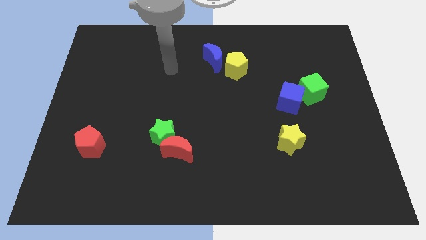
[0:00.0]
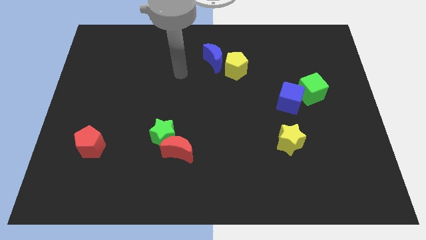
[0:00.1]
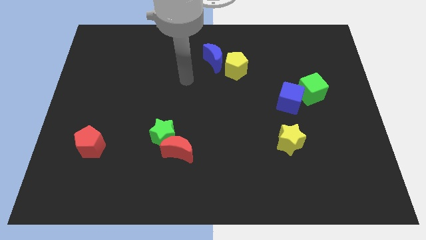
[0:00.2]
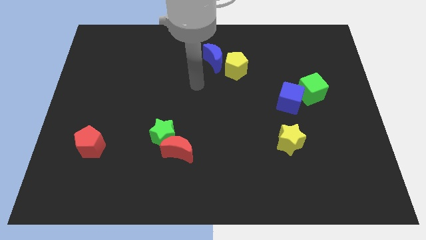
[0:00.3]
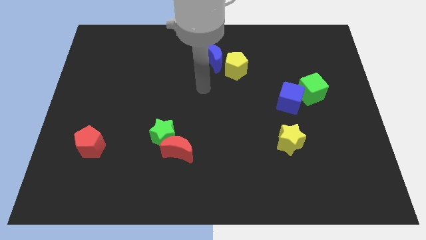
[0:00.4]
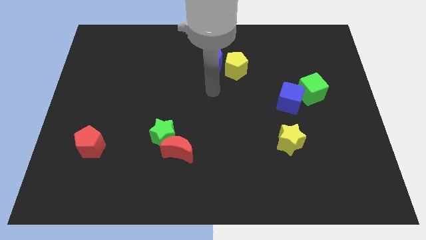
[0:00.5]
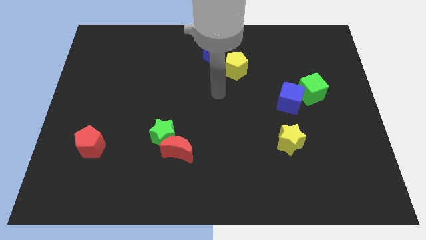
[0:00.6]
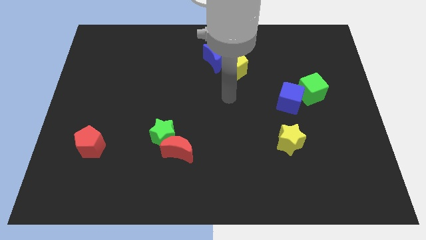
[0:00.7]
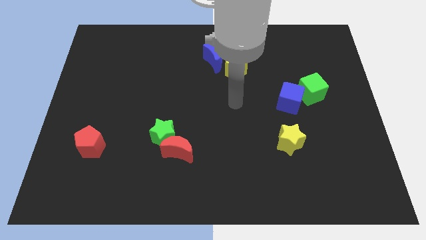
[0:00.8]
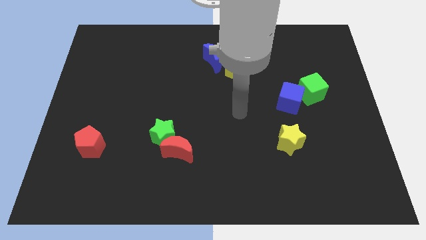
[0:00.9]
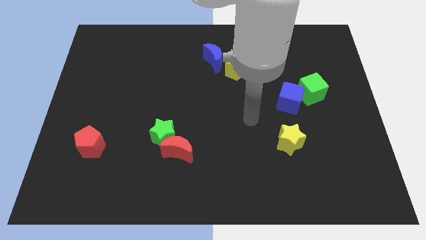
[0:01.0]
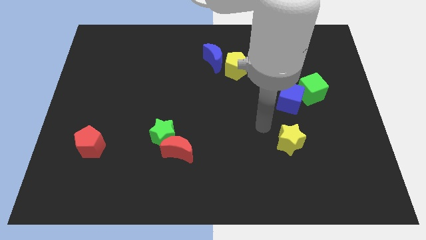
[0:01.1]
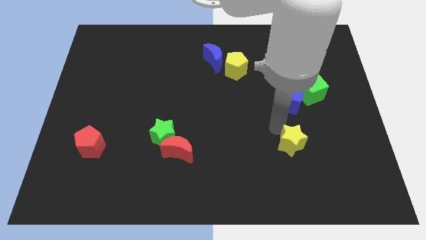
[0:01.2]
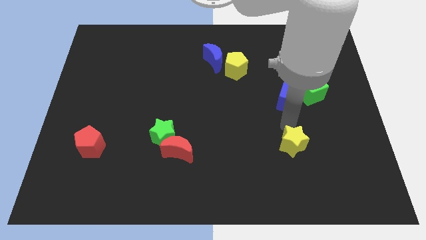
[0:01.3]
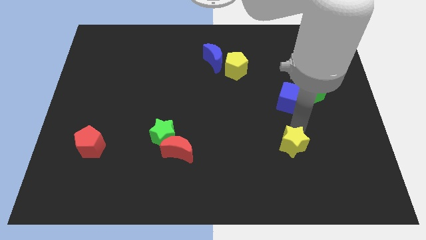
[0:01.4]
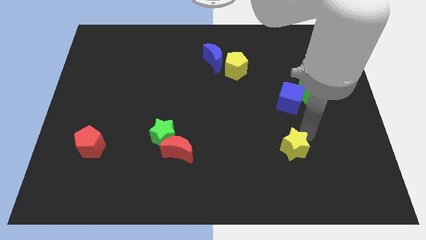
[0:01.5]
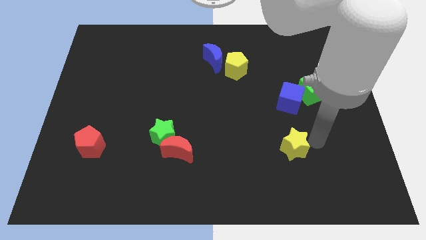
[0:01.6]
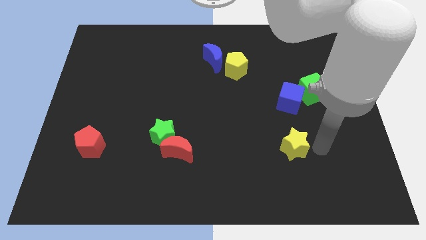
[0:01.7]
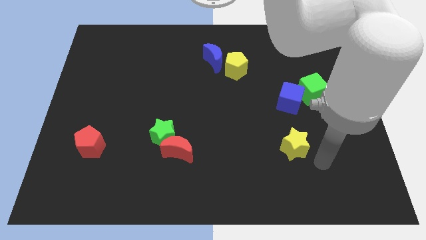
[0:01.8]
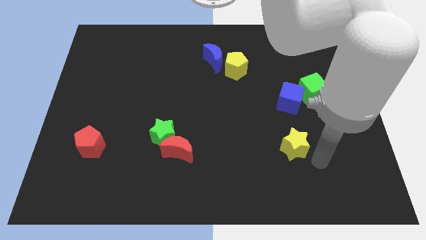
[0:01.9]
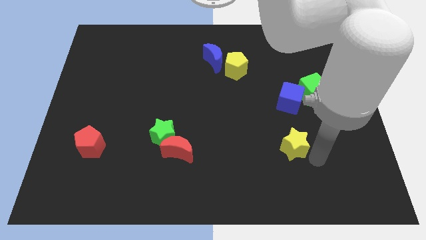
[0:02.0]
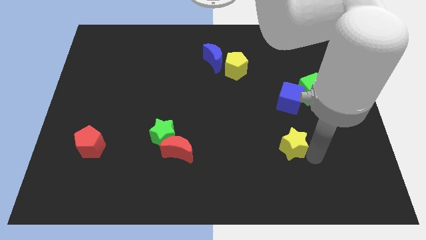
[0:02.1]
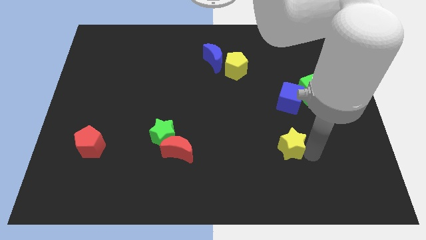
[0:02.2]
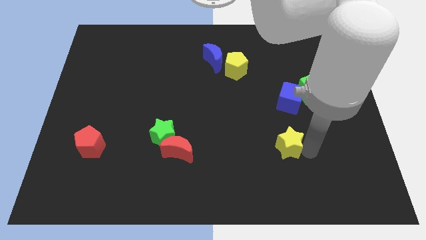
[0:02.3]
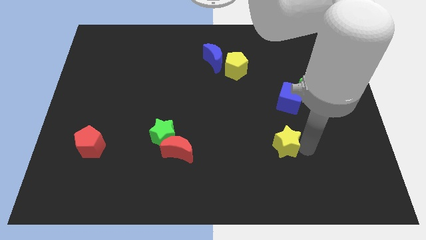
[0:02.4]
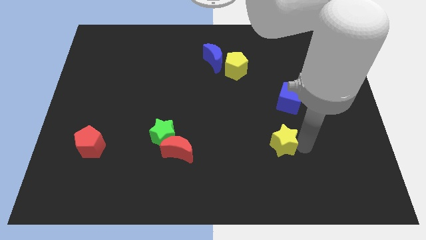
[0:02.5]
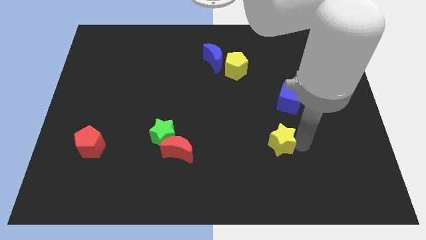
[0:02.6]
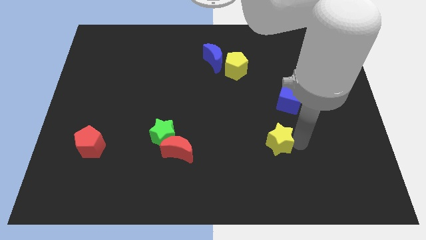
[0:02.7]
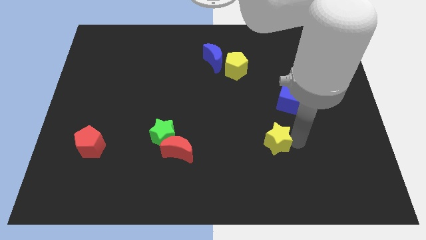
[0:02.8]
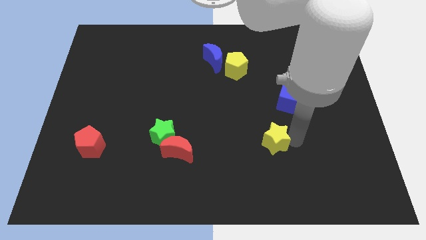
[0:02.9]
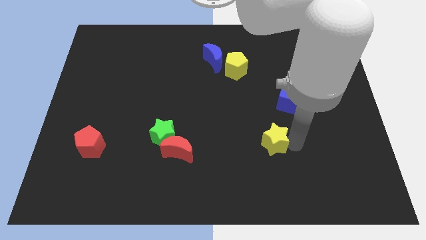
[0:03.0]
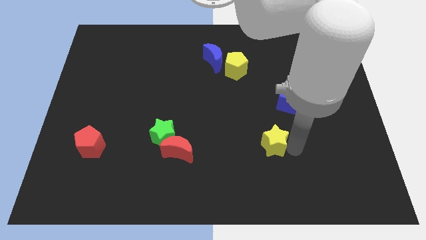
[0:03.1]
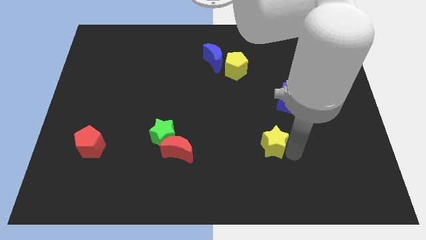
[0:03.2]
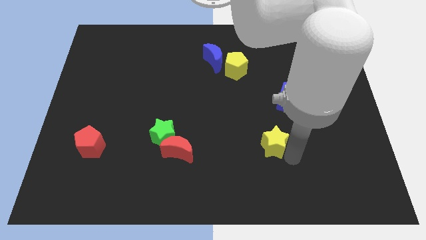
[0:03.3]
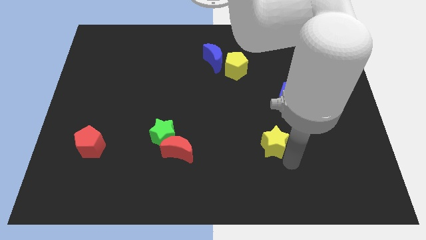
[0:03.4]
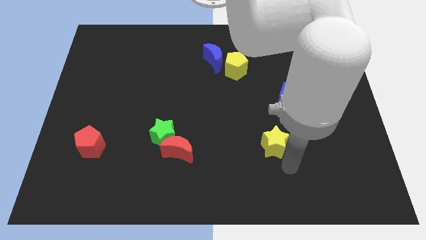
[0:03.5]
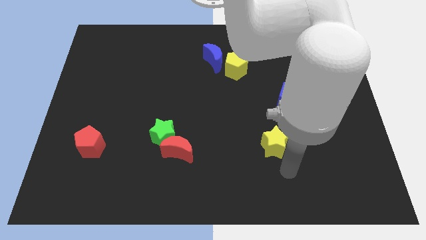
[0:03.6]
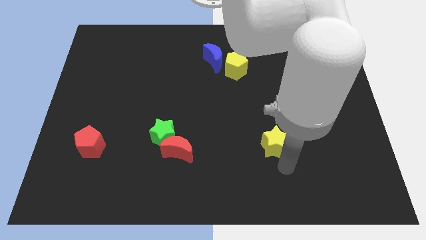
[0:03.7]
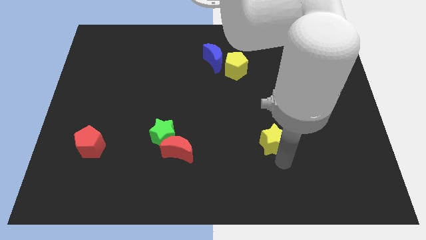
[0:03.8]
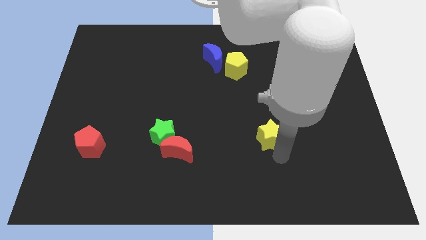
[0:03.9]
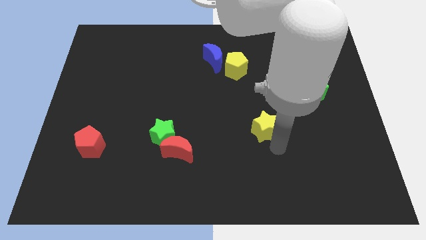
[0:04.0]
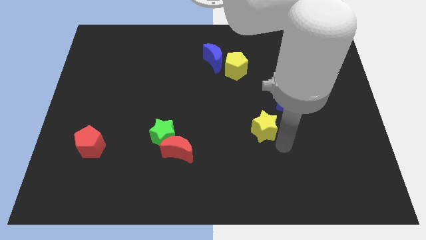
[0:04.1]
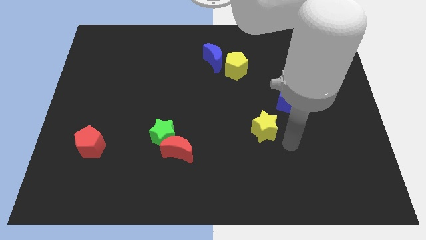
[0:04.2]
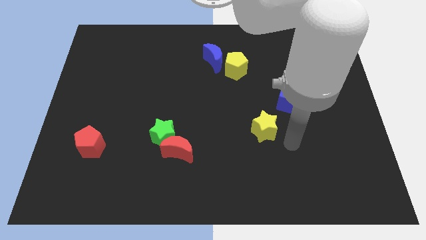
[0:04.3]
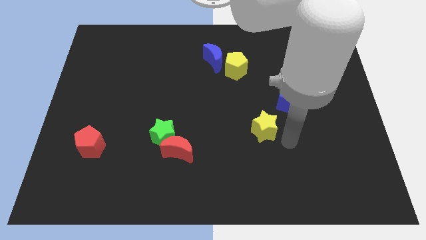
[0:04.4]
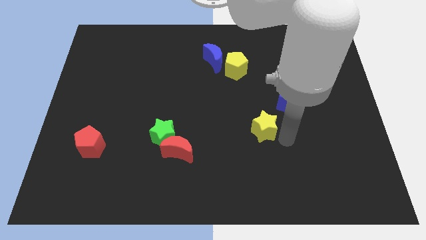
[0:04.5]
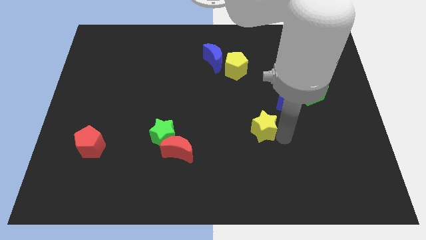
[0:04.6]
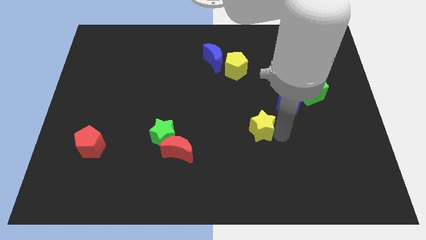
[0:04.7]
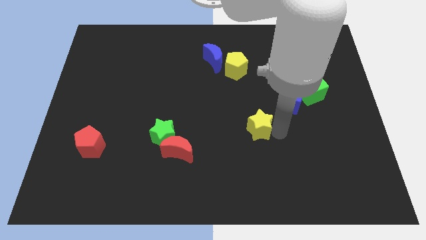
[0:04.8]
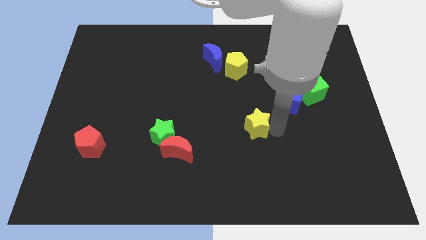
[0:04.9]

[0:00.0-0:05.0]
slide the yellow star to the middle of the board

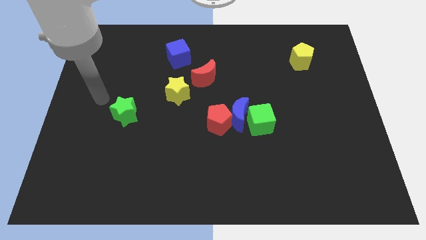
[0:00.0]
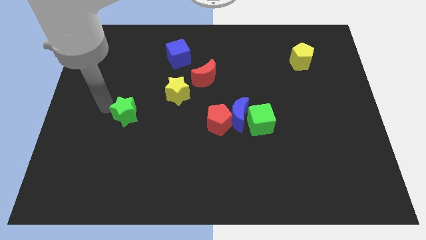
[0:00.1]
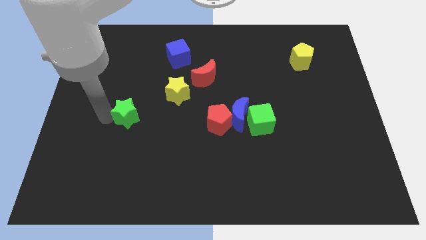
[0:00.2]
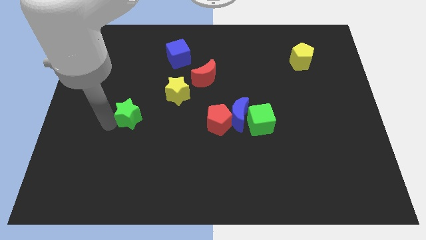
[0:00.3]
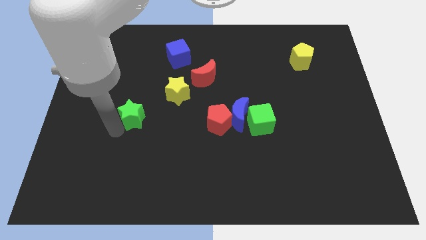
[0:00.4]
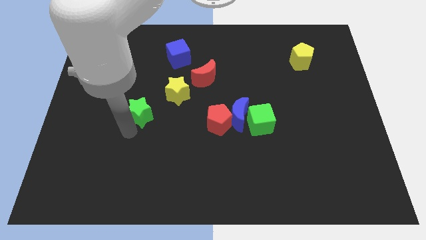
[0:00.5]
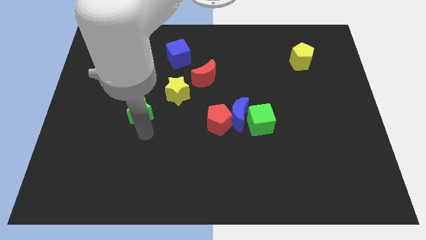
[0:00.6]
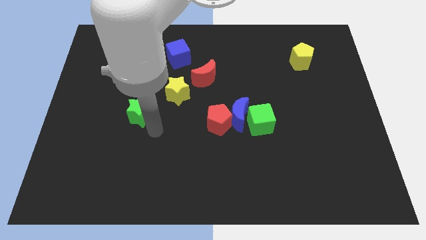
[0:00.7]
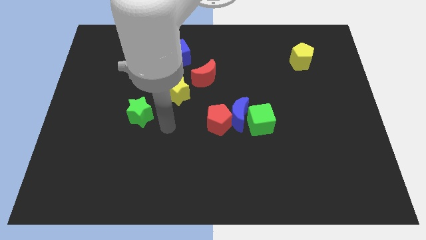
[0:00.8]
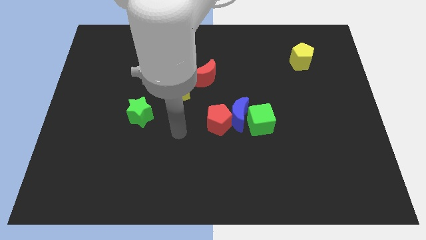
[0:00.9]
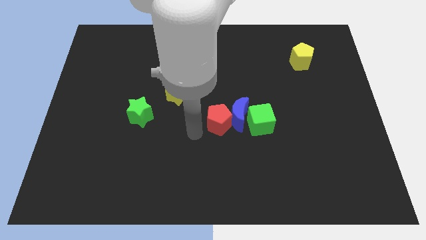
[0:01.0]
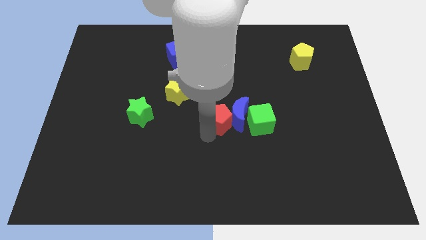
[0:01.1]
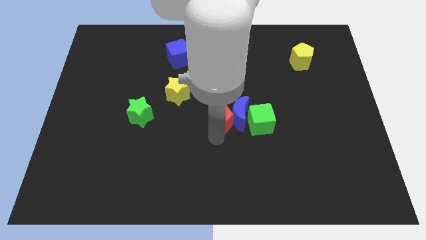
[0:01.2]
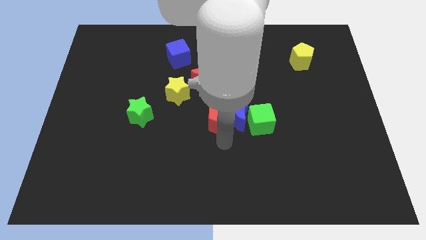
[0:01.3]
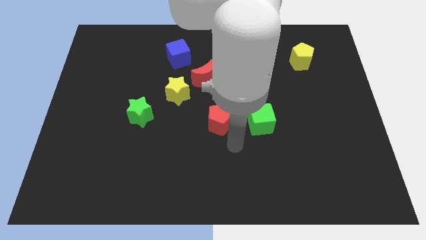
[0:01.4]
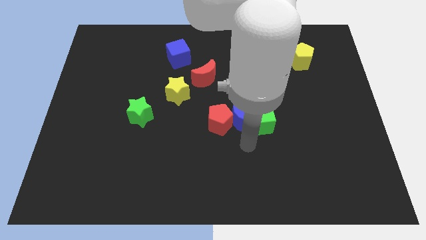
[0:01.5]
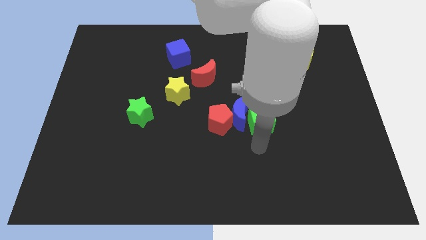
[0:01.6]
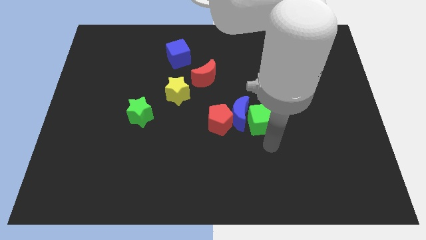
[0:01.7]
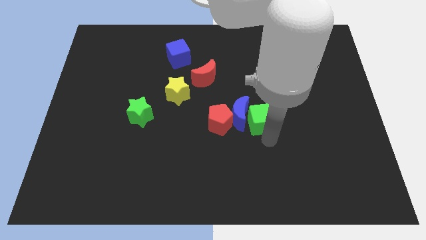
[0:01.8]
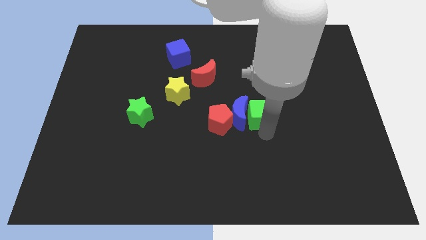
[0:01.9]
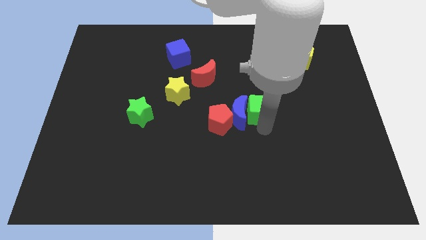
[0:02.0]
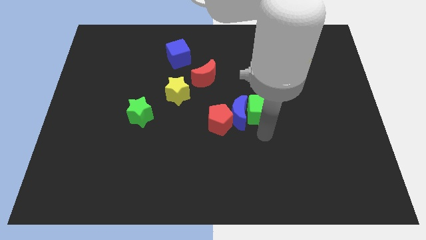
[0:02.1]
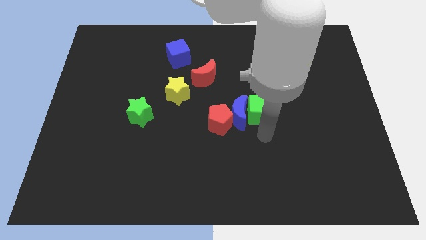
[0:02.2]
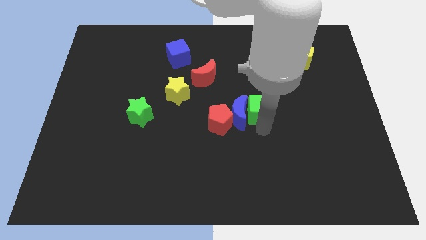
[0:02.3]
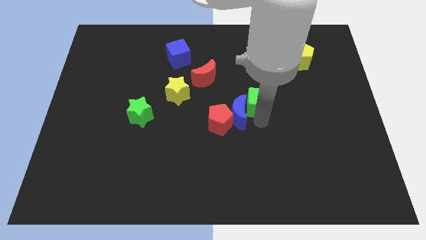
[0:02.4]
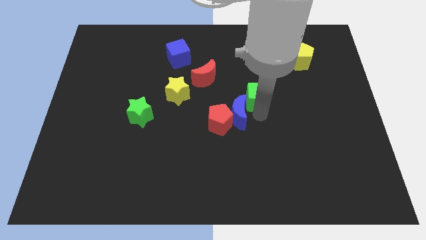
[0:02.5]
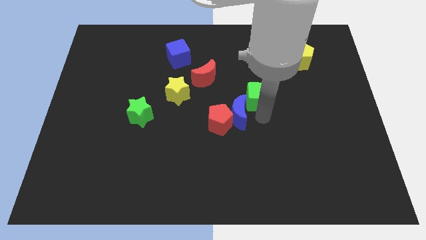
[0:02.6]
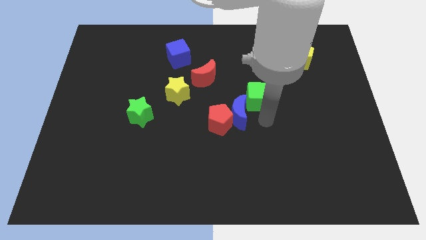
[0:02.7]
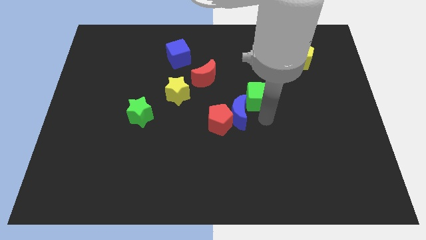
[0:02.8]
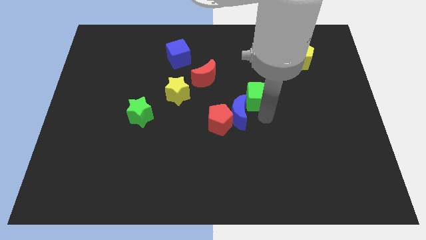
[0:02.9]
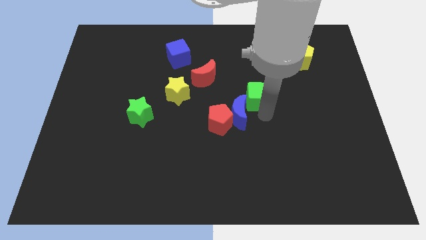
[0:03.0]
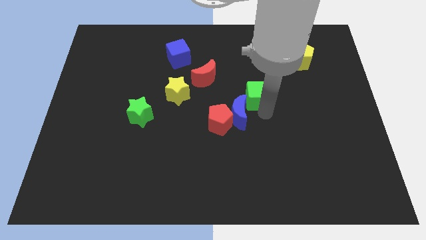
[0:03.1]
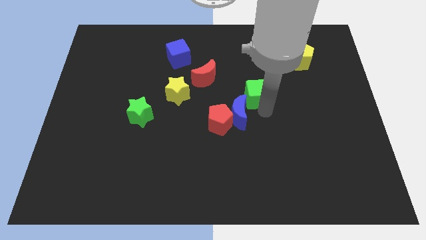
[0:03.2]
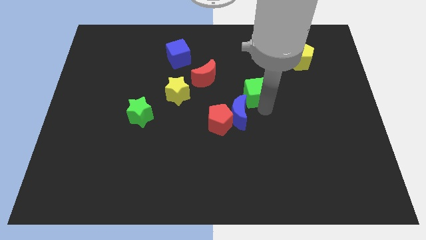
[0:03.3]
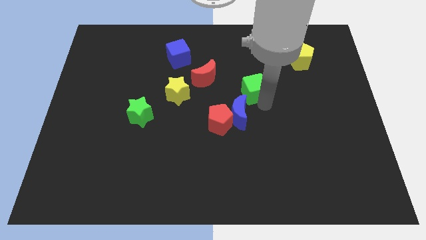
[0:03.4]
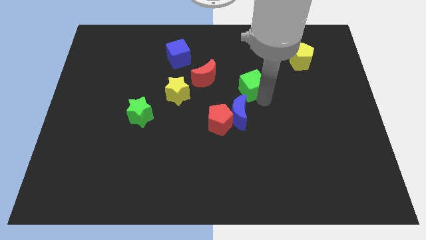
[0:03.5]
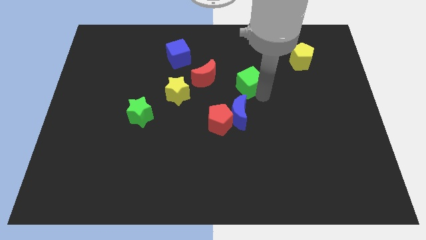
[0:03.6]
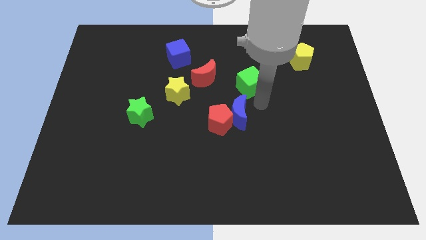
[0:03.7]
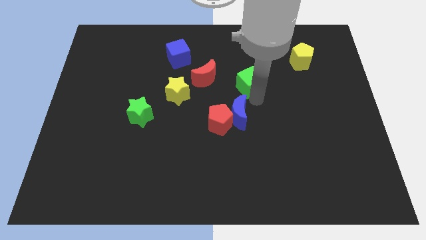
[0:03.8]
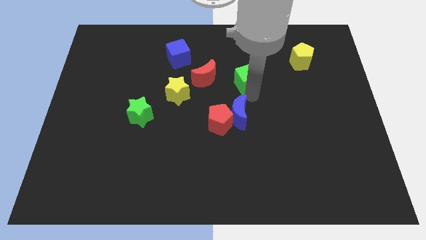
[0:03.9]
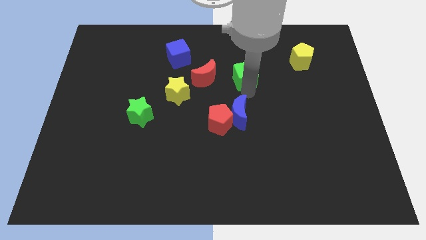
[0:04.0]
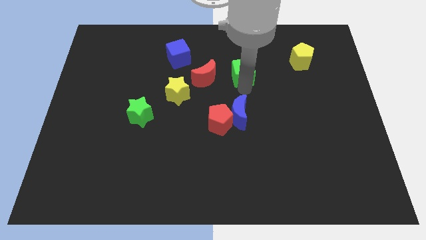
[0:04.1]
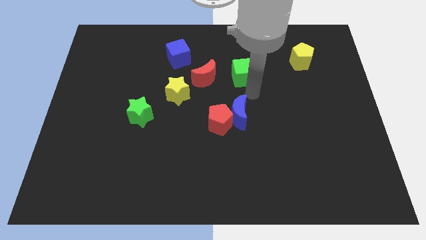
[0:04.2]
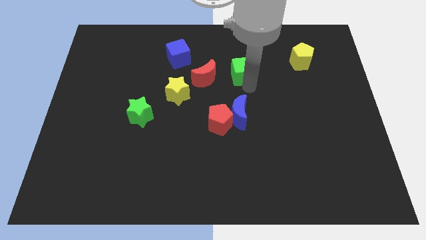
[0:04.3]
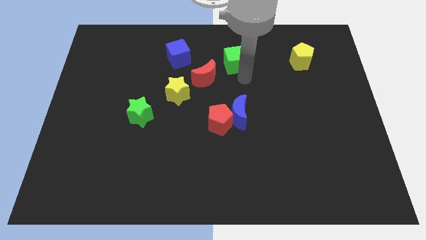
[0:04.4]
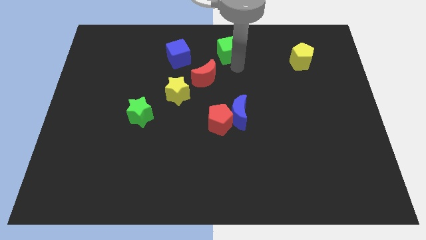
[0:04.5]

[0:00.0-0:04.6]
push the green cube to the top side
